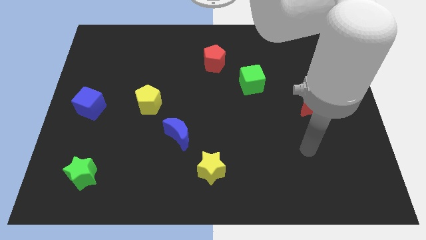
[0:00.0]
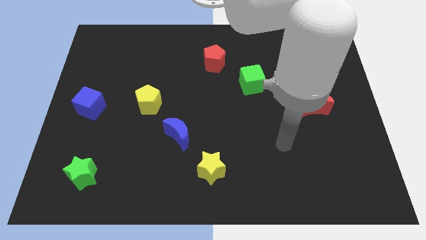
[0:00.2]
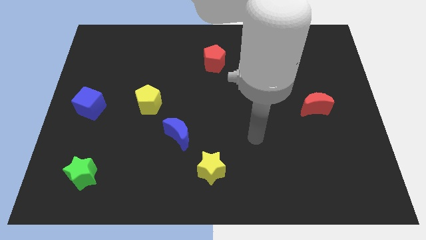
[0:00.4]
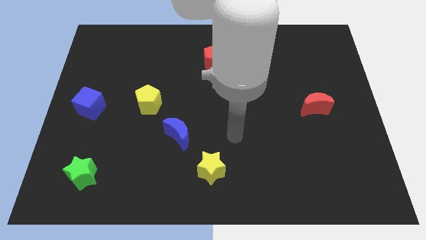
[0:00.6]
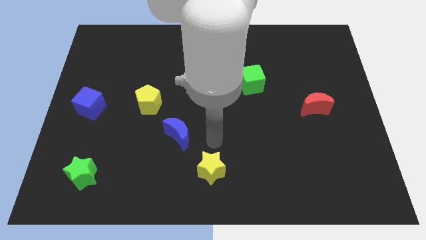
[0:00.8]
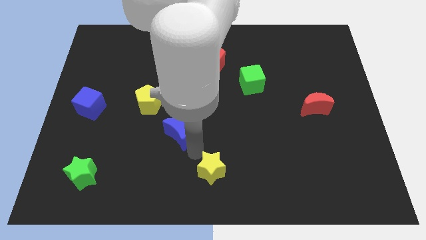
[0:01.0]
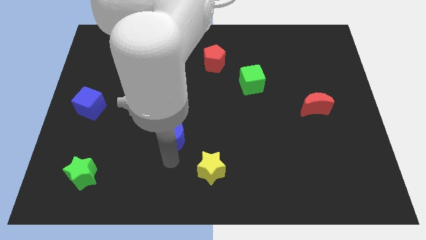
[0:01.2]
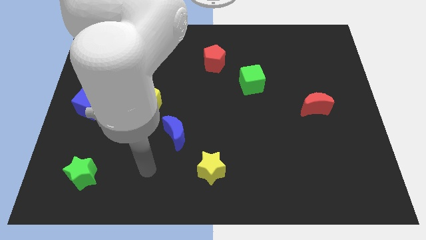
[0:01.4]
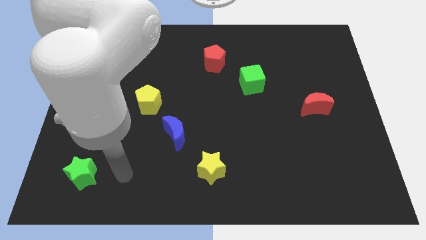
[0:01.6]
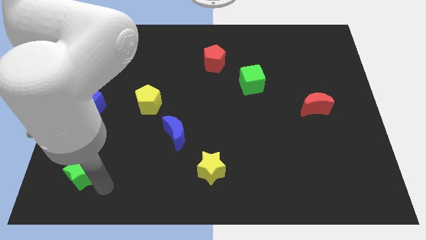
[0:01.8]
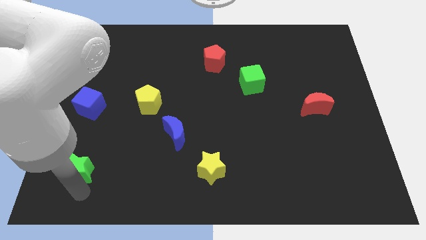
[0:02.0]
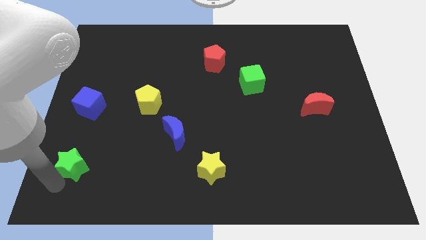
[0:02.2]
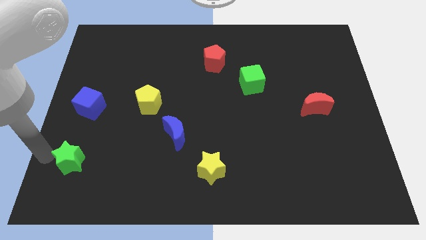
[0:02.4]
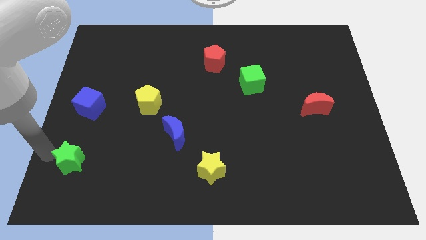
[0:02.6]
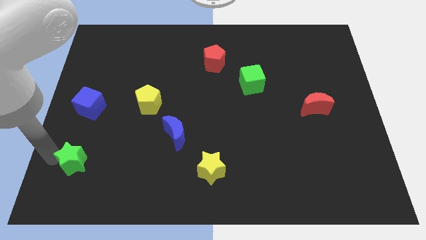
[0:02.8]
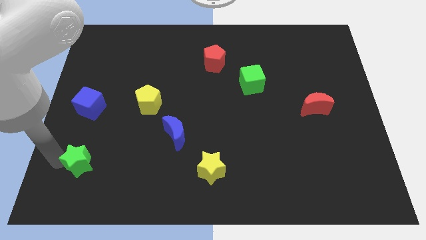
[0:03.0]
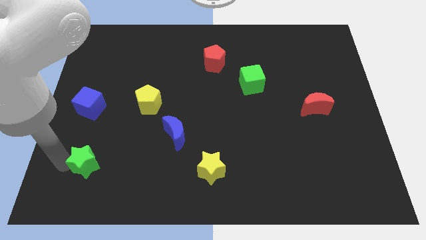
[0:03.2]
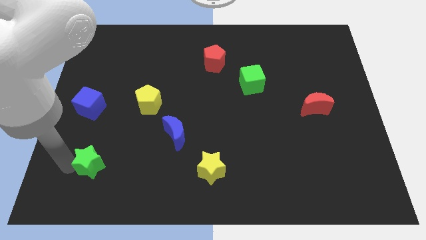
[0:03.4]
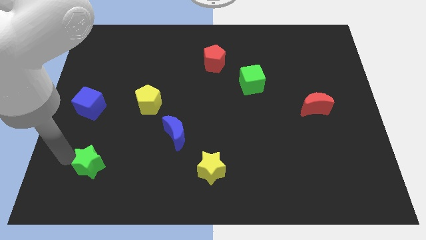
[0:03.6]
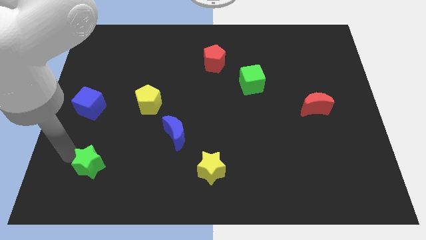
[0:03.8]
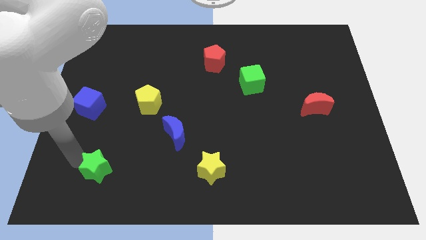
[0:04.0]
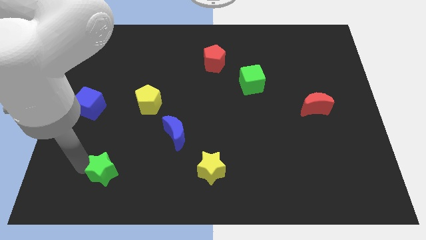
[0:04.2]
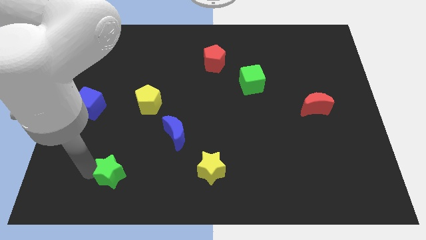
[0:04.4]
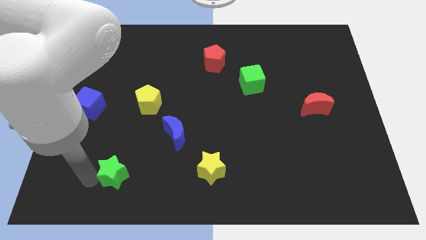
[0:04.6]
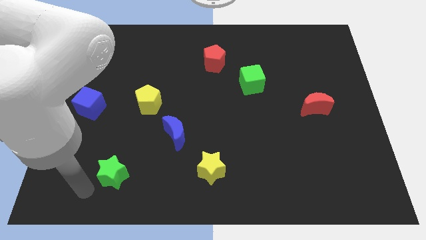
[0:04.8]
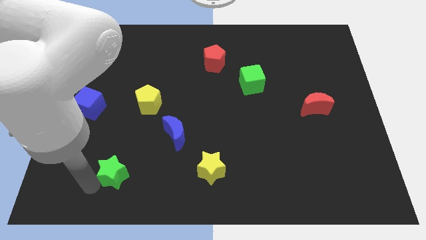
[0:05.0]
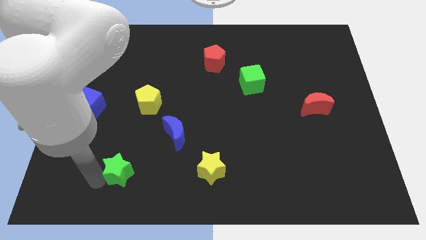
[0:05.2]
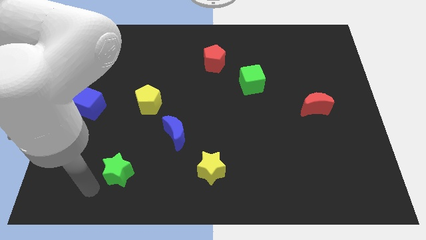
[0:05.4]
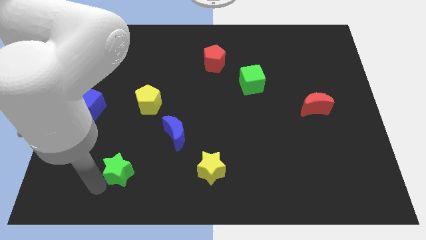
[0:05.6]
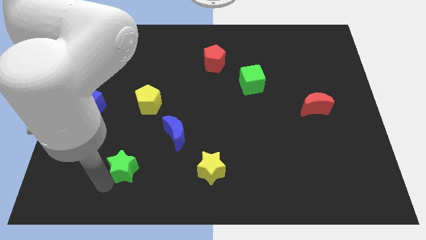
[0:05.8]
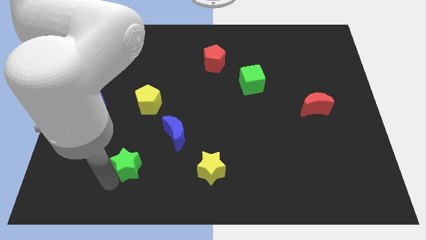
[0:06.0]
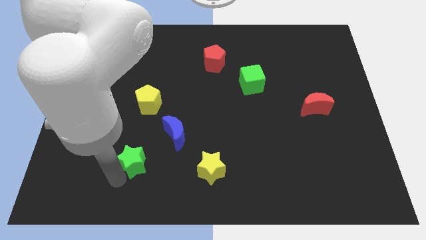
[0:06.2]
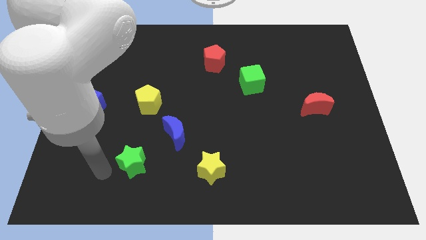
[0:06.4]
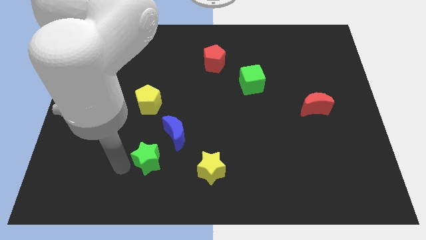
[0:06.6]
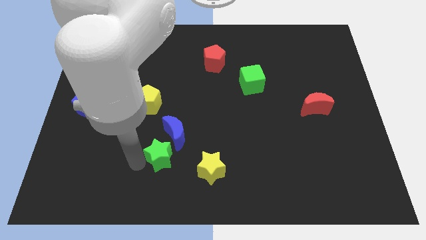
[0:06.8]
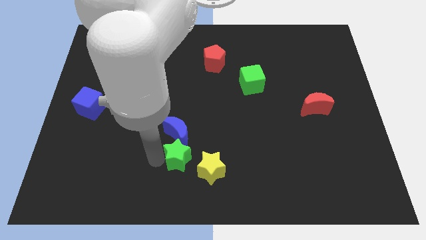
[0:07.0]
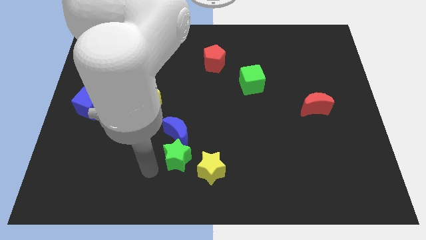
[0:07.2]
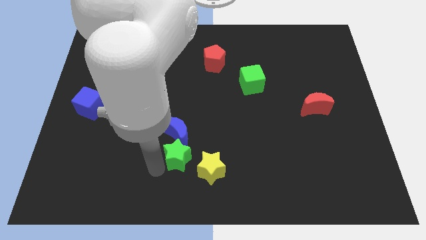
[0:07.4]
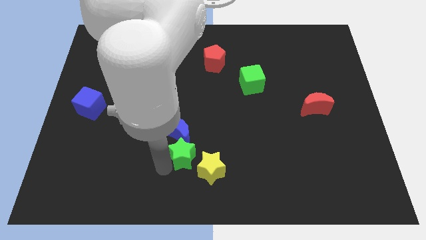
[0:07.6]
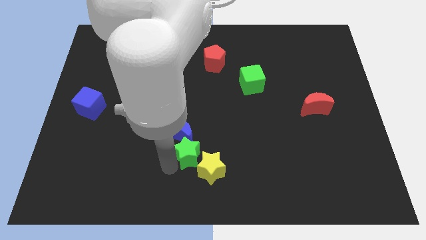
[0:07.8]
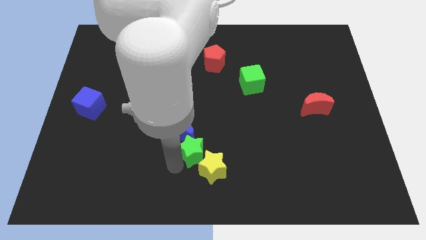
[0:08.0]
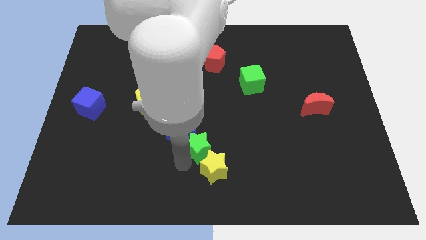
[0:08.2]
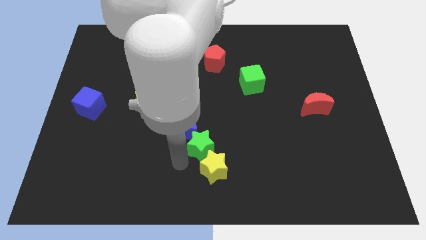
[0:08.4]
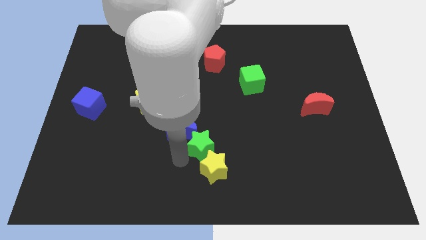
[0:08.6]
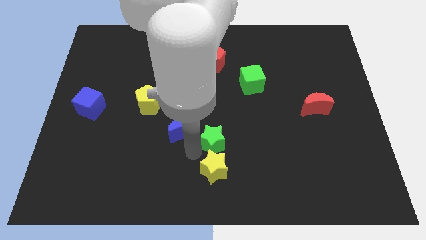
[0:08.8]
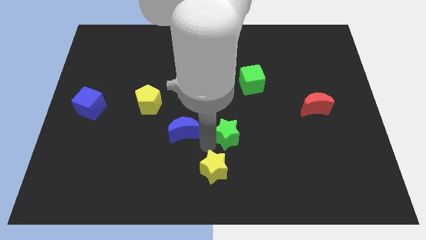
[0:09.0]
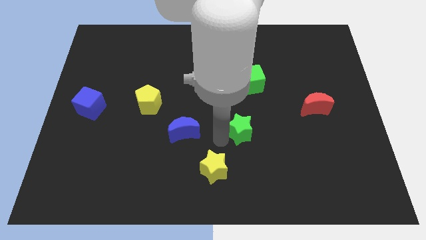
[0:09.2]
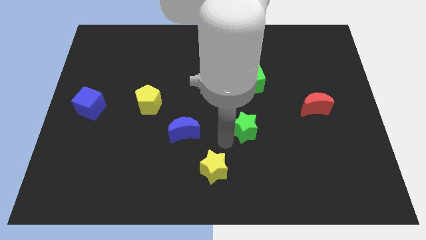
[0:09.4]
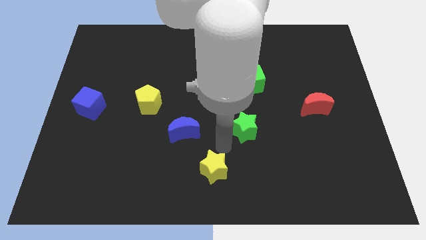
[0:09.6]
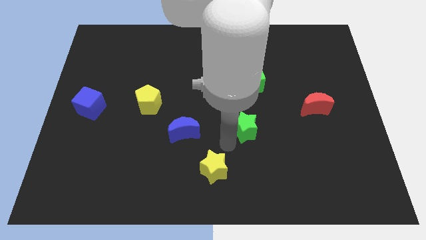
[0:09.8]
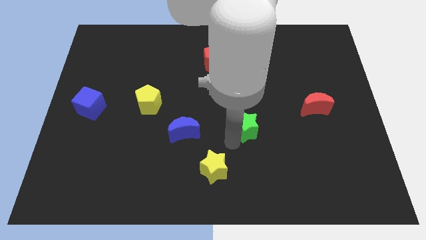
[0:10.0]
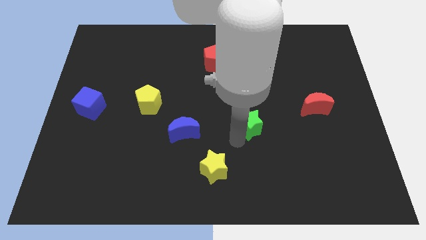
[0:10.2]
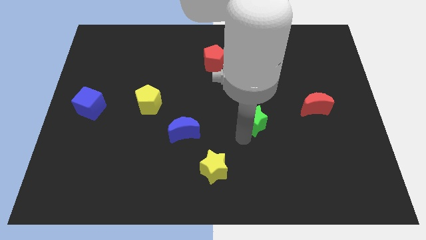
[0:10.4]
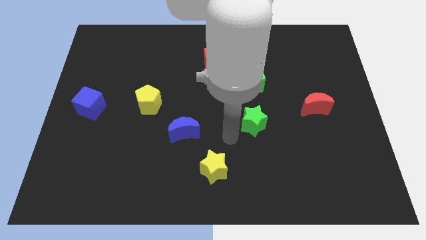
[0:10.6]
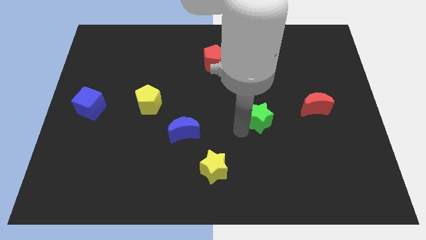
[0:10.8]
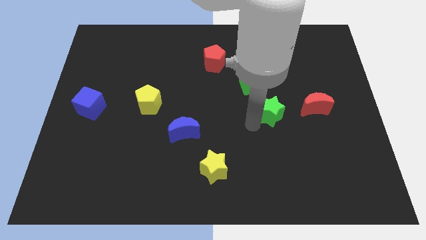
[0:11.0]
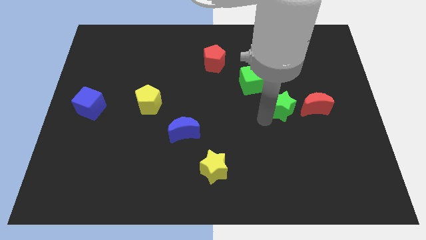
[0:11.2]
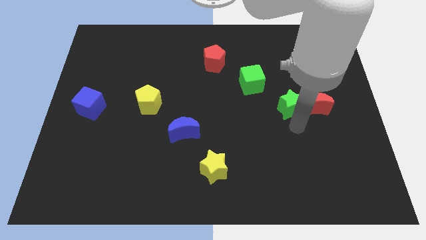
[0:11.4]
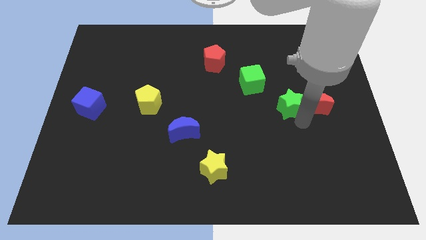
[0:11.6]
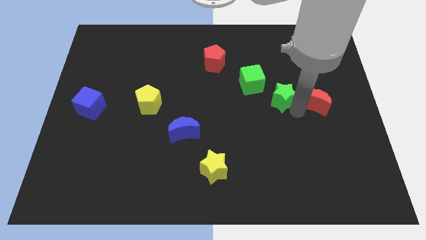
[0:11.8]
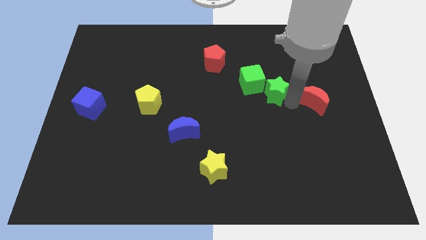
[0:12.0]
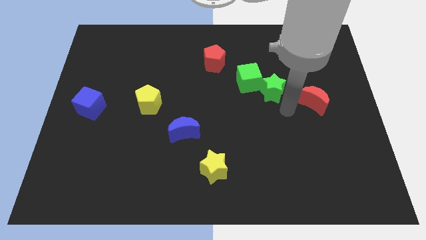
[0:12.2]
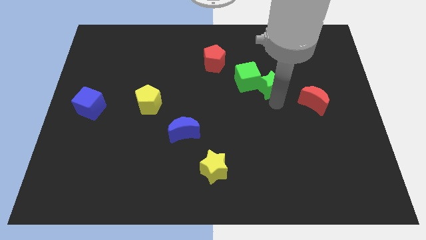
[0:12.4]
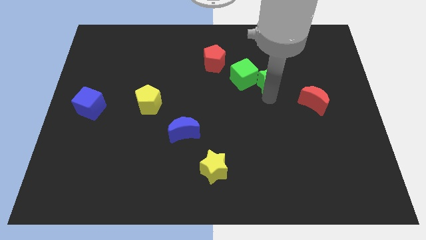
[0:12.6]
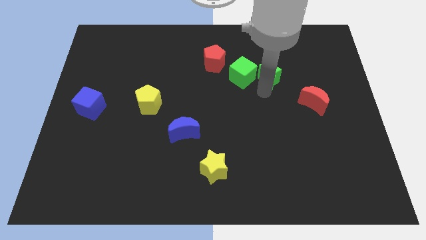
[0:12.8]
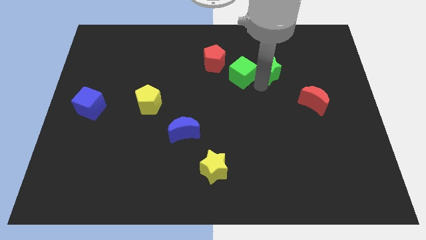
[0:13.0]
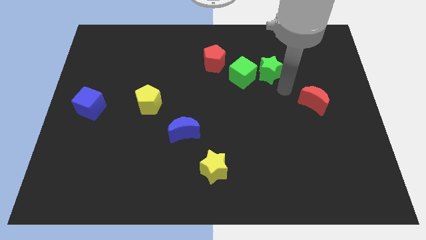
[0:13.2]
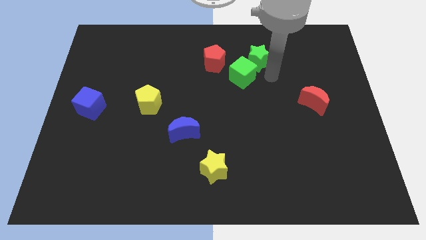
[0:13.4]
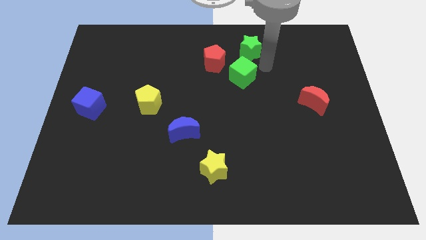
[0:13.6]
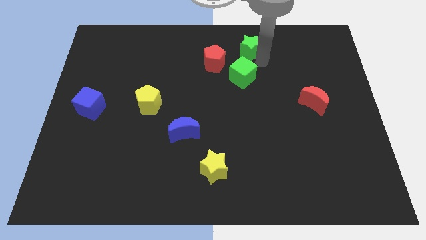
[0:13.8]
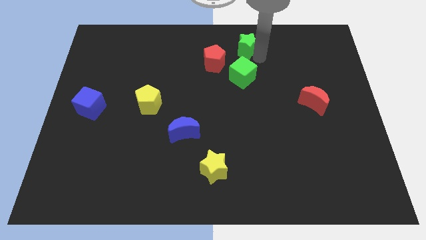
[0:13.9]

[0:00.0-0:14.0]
move the green star to the top side
